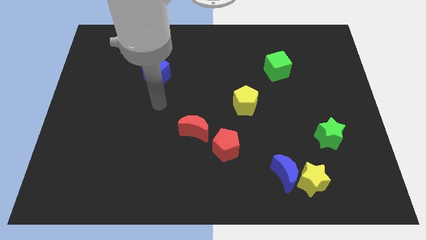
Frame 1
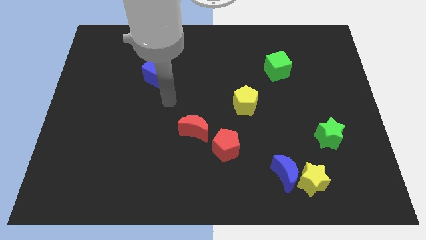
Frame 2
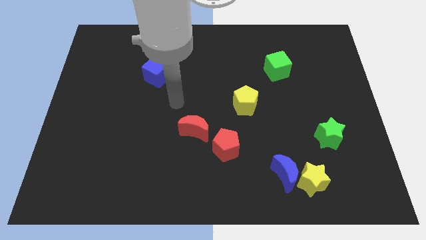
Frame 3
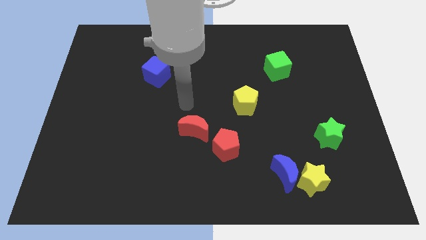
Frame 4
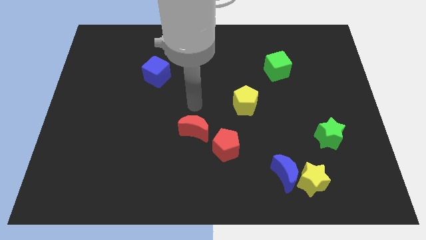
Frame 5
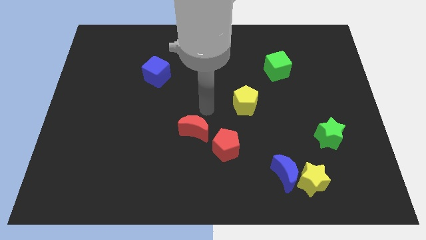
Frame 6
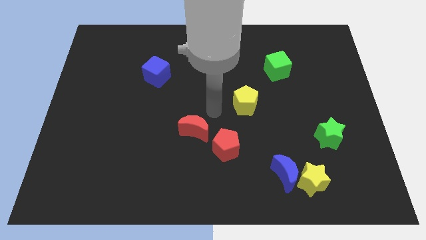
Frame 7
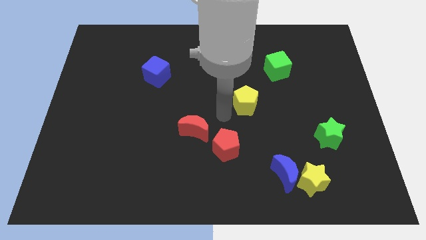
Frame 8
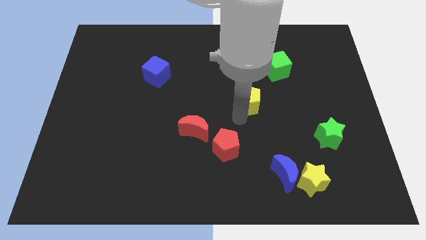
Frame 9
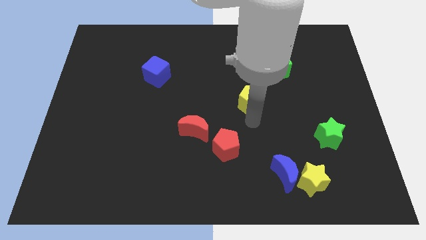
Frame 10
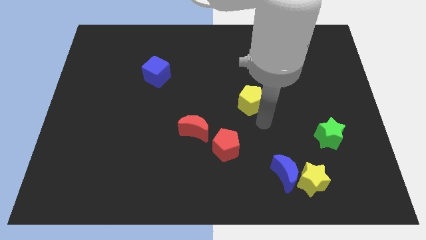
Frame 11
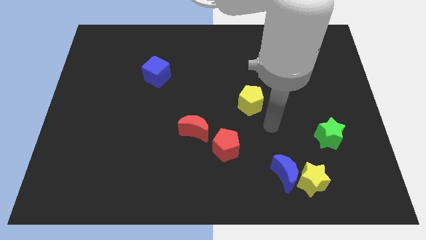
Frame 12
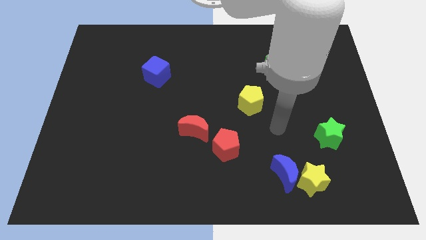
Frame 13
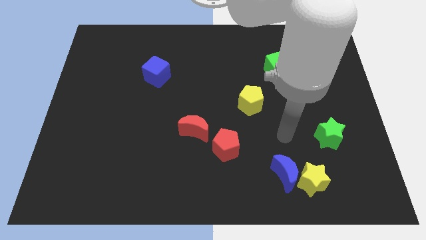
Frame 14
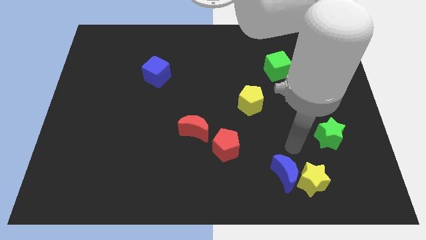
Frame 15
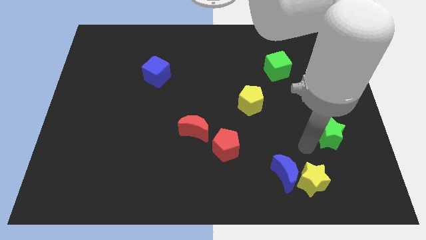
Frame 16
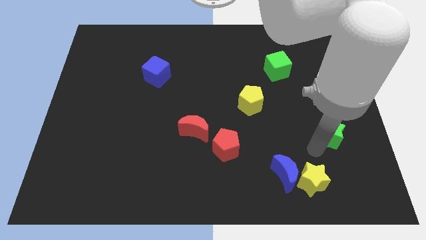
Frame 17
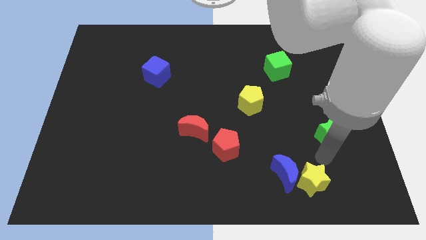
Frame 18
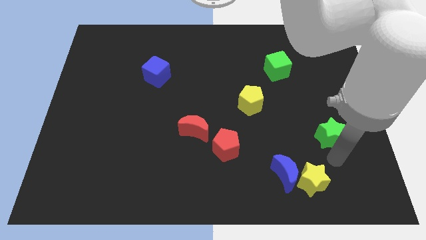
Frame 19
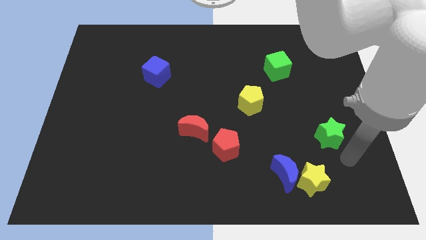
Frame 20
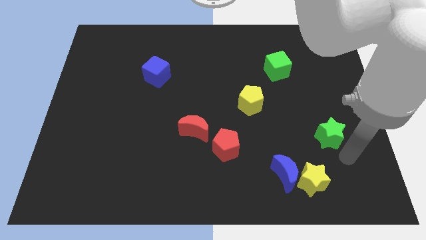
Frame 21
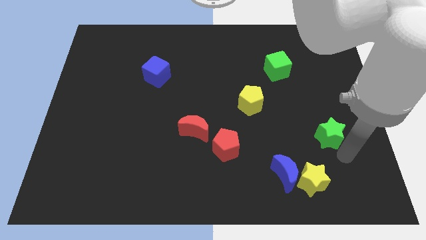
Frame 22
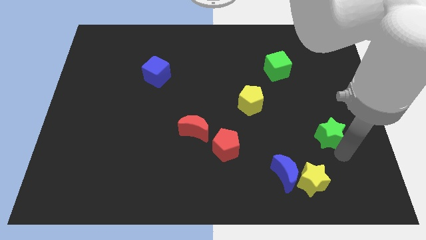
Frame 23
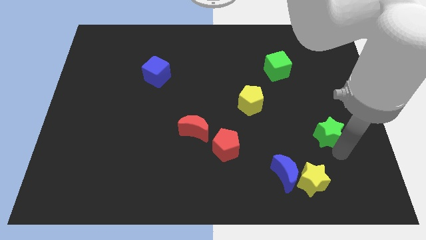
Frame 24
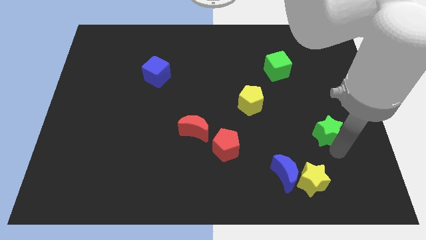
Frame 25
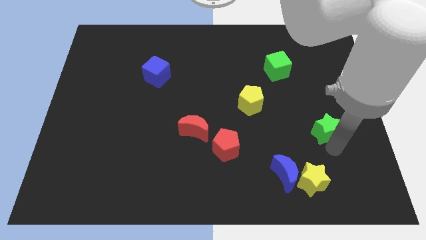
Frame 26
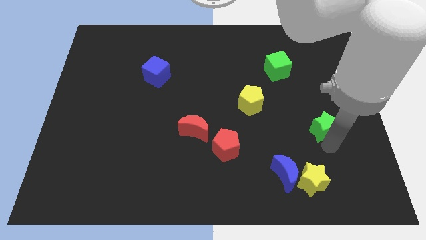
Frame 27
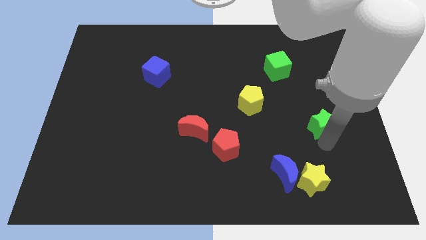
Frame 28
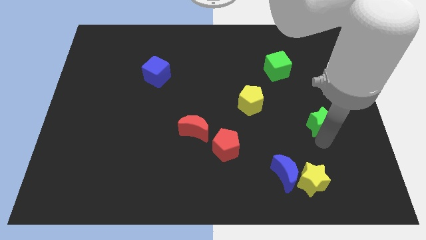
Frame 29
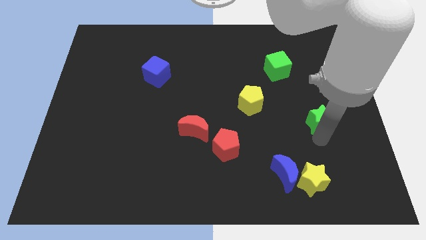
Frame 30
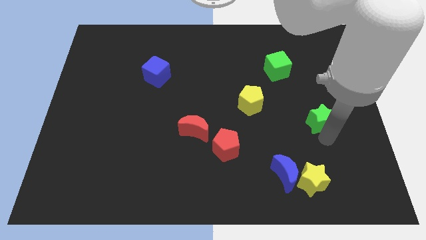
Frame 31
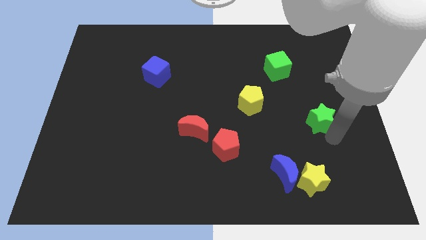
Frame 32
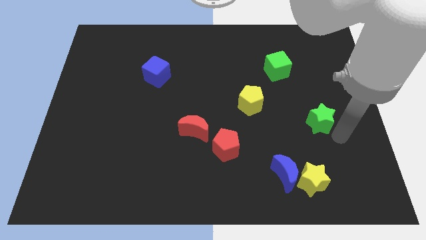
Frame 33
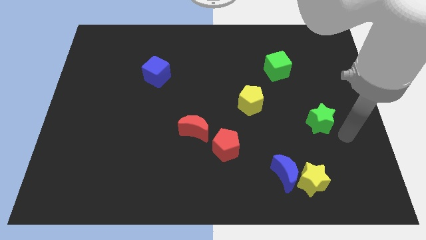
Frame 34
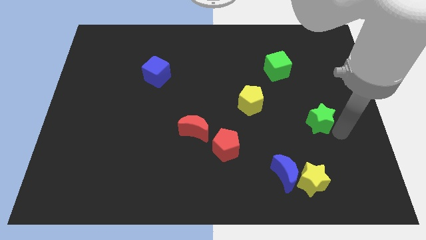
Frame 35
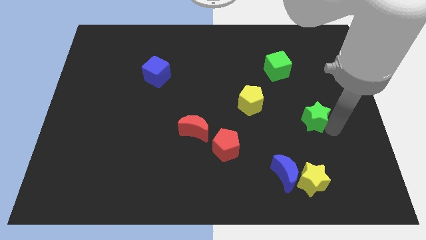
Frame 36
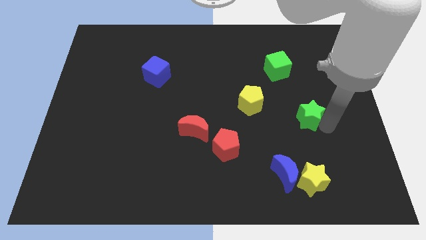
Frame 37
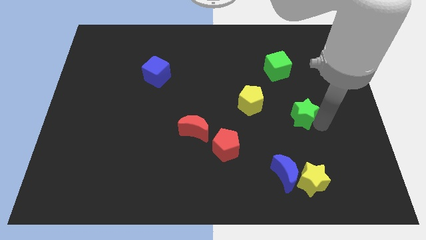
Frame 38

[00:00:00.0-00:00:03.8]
slightly push the green star upwards and then left

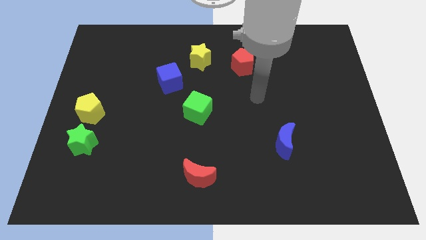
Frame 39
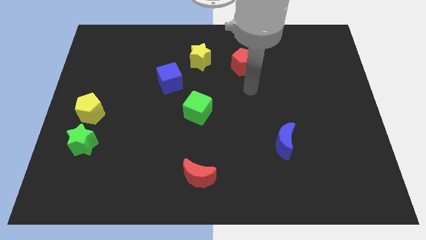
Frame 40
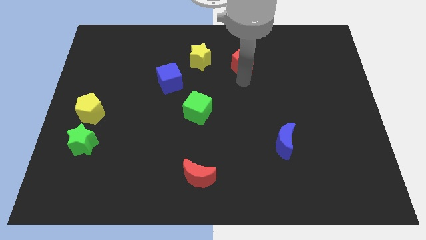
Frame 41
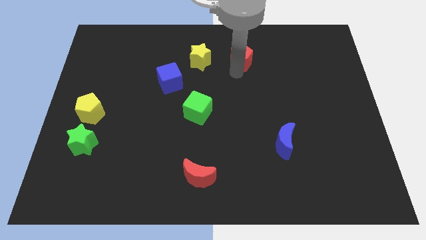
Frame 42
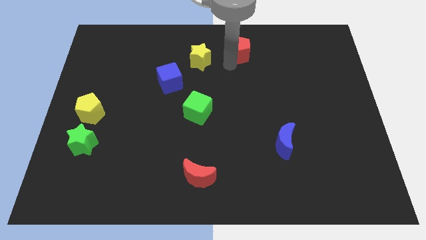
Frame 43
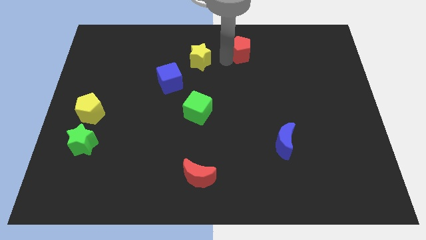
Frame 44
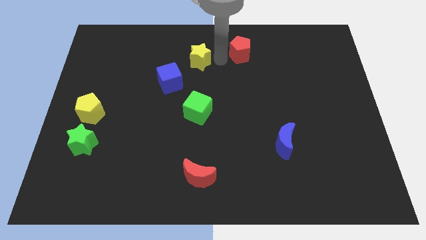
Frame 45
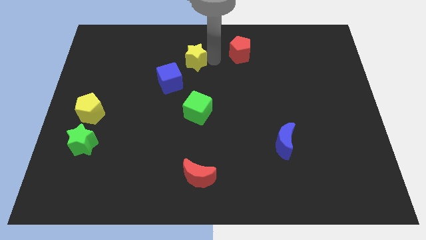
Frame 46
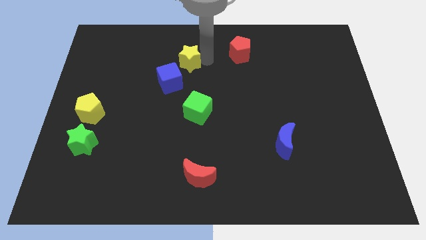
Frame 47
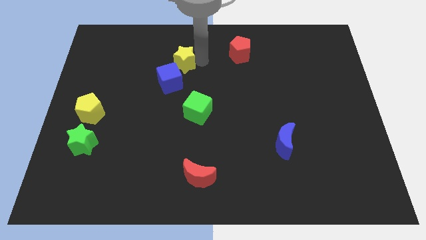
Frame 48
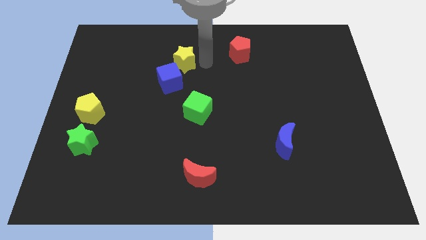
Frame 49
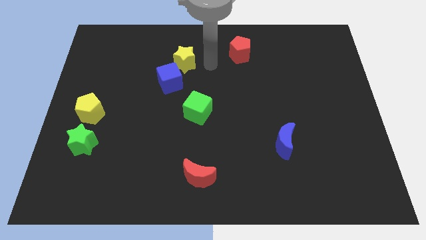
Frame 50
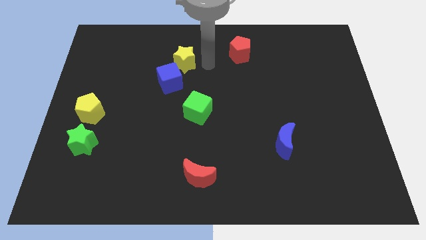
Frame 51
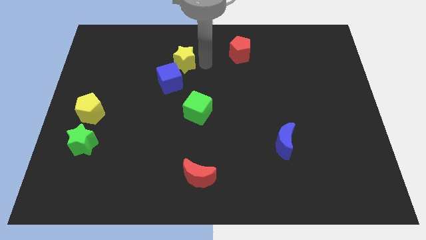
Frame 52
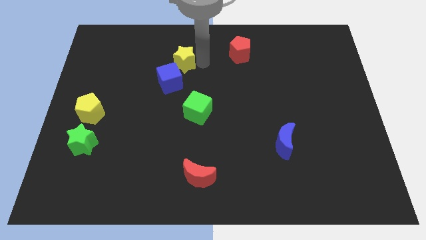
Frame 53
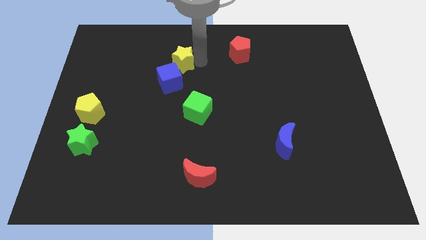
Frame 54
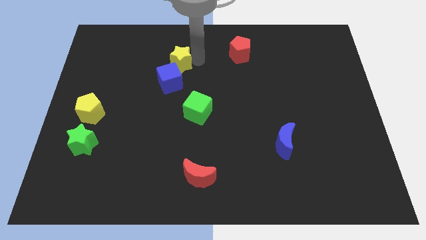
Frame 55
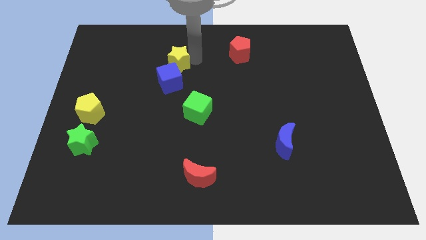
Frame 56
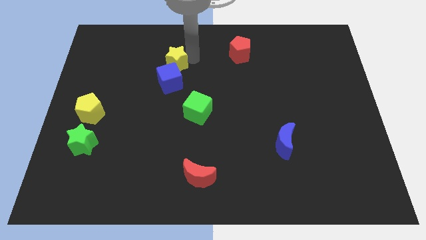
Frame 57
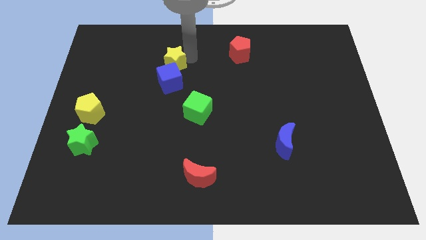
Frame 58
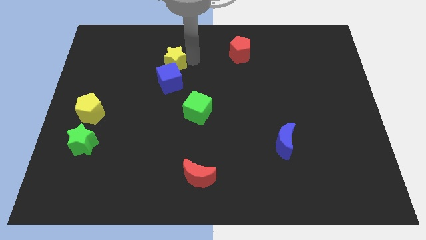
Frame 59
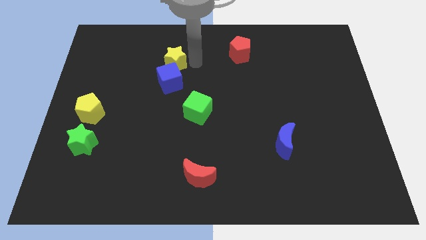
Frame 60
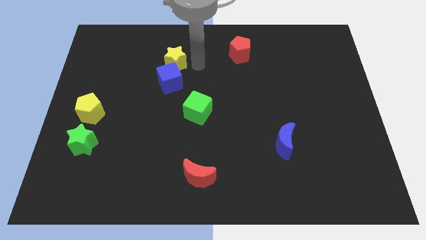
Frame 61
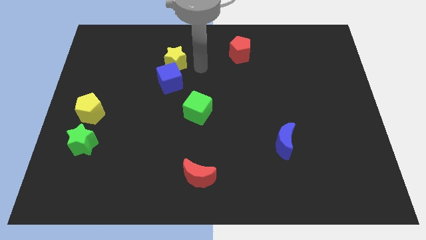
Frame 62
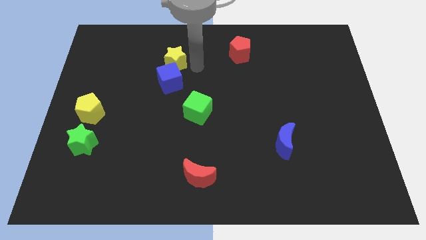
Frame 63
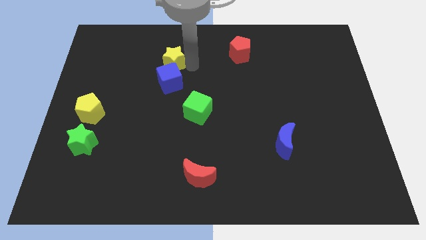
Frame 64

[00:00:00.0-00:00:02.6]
slightly slide the yellow star to the left

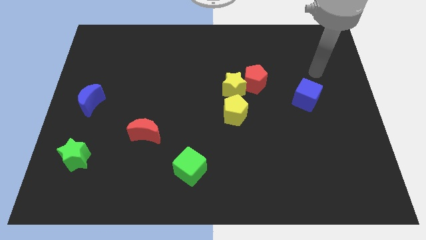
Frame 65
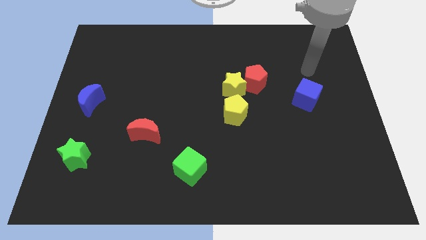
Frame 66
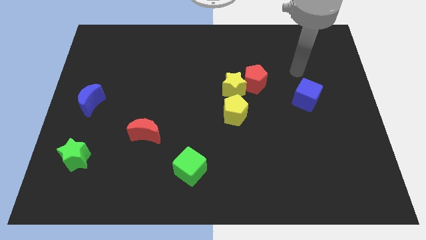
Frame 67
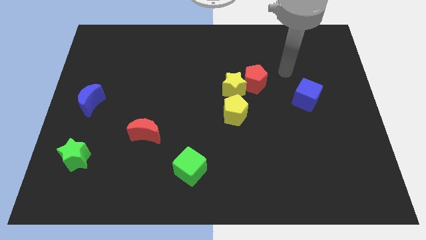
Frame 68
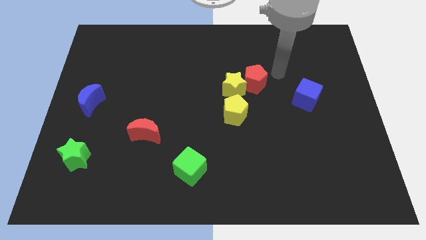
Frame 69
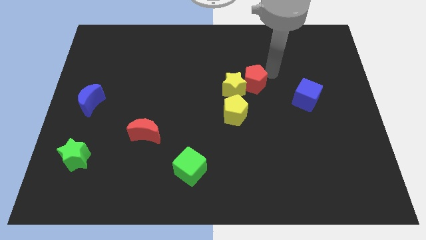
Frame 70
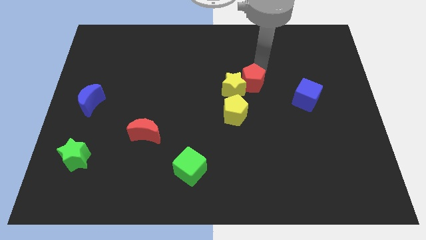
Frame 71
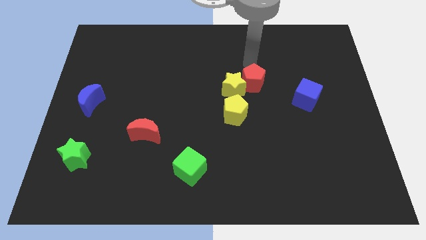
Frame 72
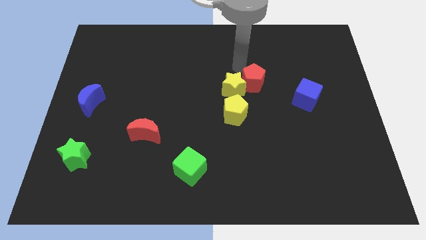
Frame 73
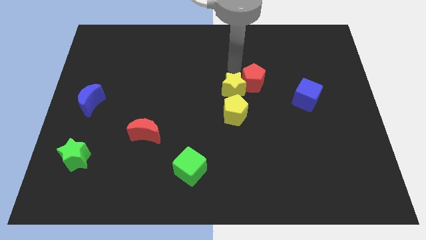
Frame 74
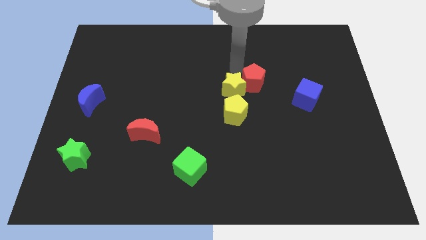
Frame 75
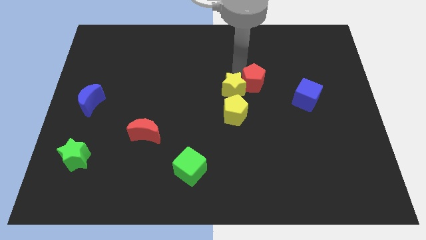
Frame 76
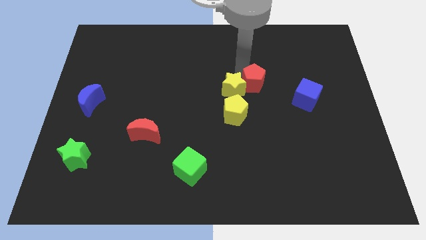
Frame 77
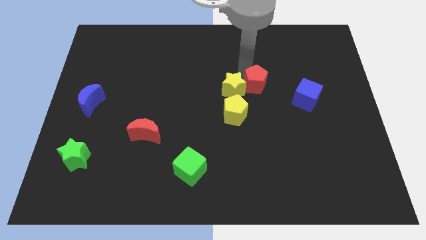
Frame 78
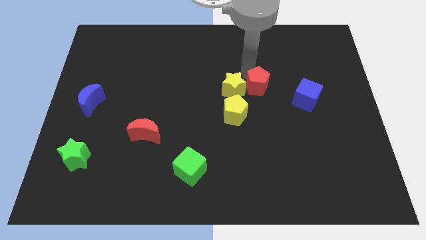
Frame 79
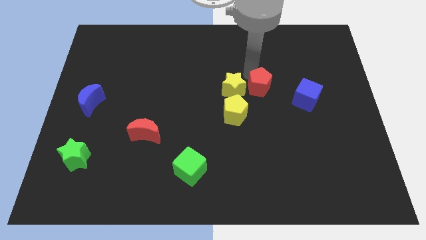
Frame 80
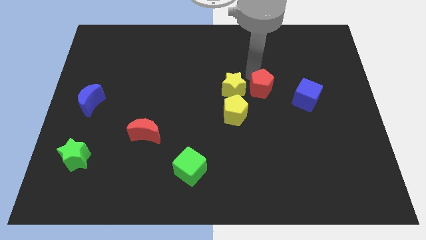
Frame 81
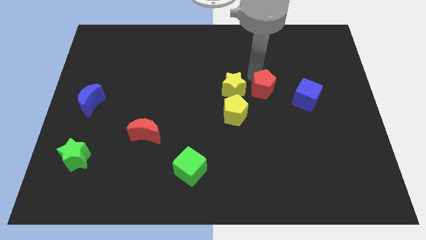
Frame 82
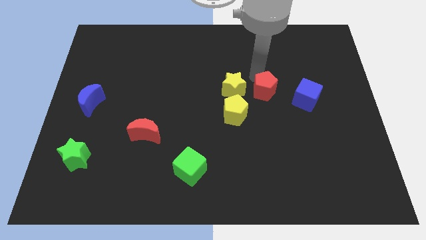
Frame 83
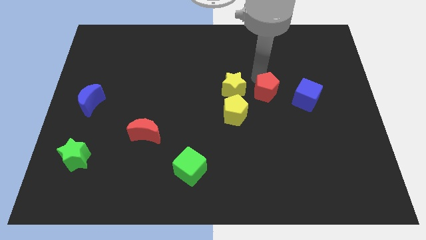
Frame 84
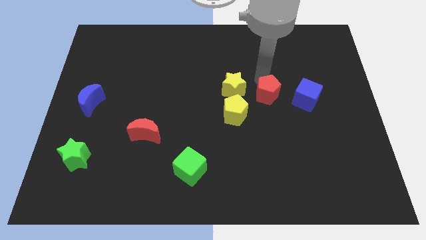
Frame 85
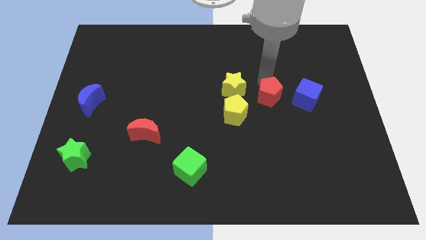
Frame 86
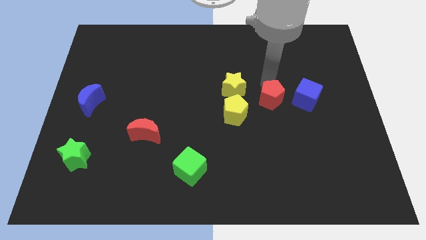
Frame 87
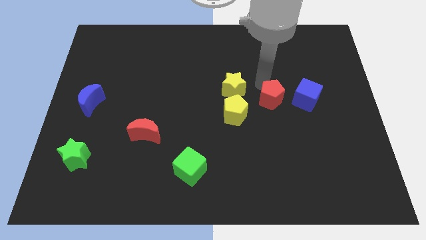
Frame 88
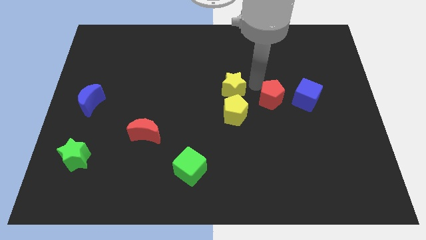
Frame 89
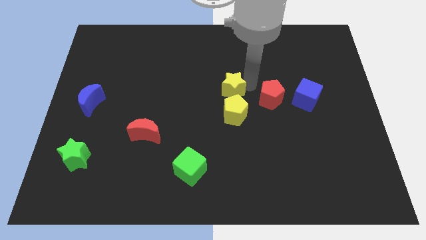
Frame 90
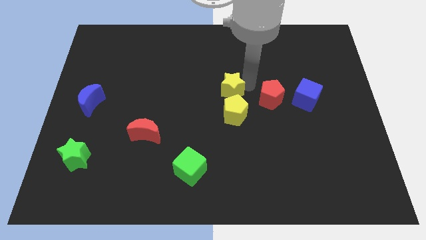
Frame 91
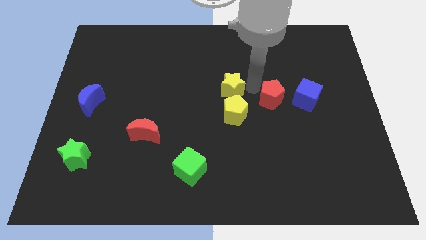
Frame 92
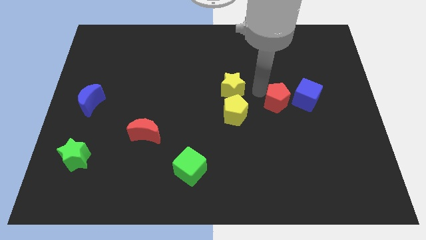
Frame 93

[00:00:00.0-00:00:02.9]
slide the red pentagon diagonally down and right a little bit
